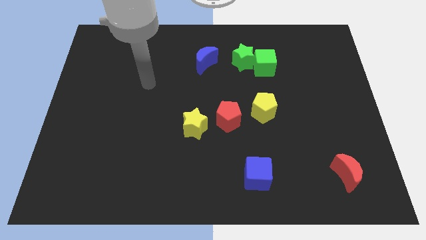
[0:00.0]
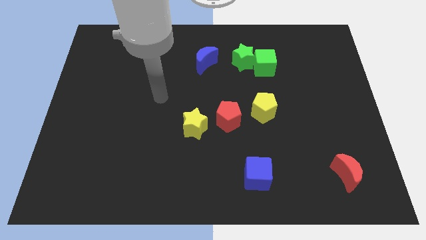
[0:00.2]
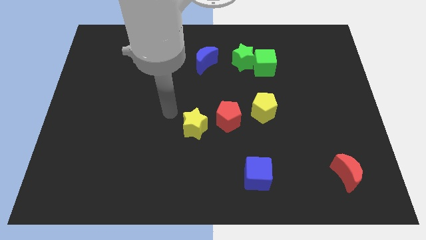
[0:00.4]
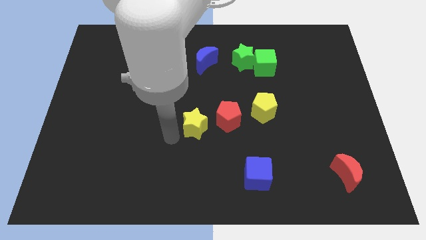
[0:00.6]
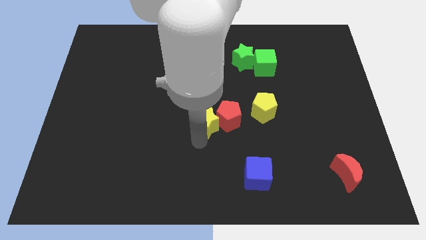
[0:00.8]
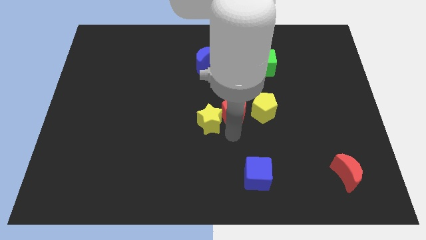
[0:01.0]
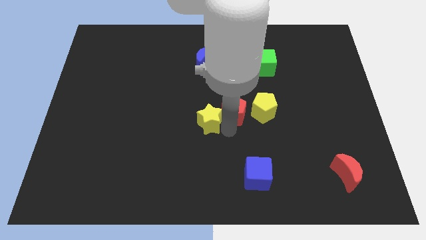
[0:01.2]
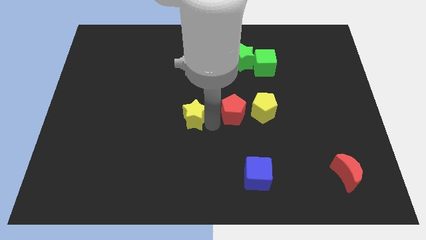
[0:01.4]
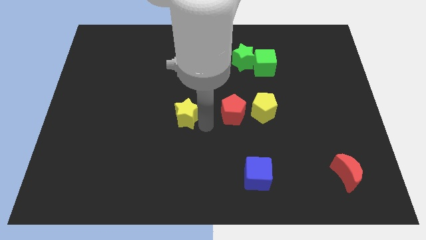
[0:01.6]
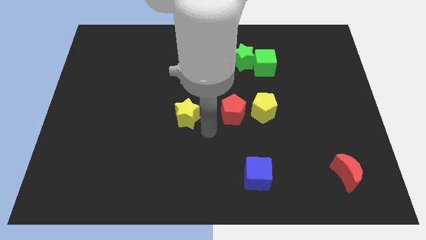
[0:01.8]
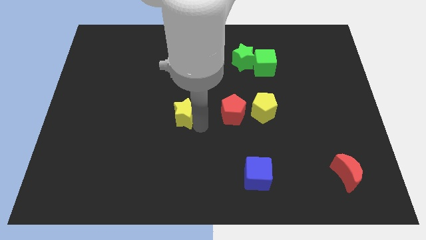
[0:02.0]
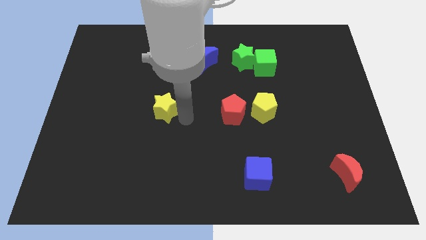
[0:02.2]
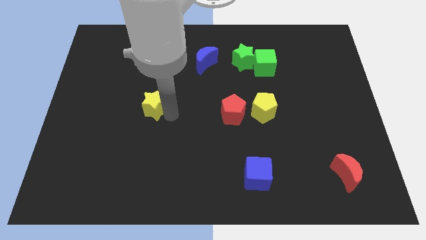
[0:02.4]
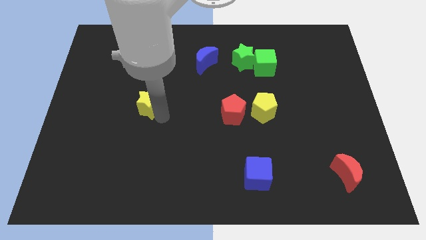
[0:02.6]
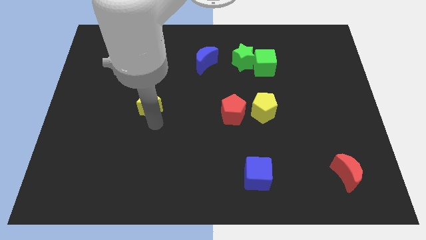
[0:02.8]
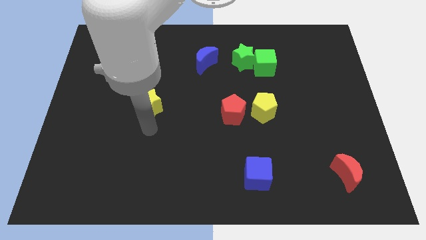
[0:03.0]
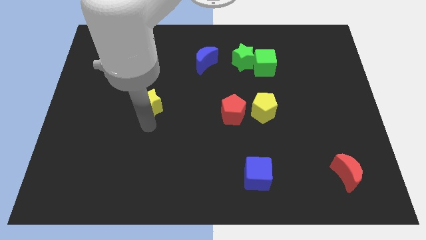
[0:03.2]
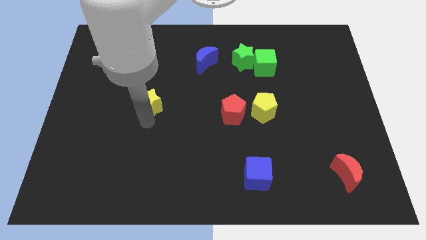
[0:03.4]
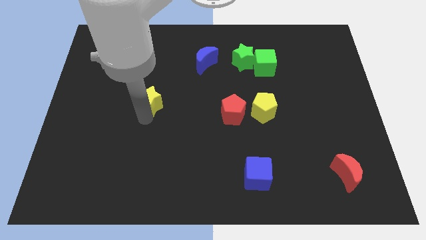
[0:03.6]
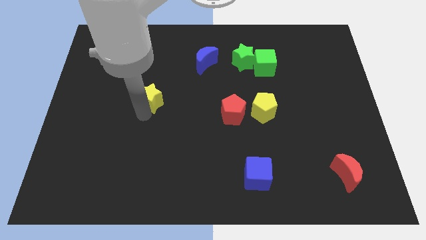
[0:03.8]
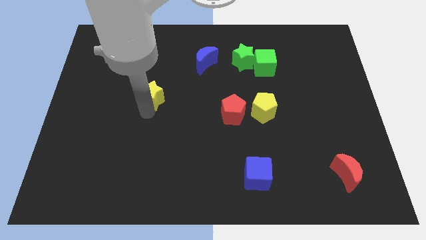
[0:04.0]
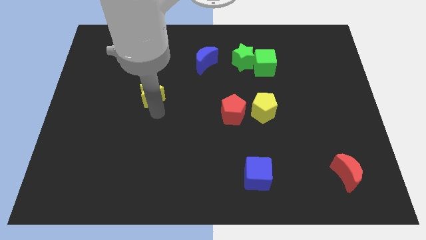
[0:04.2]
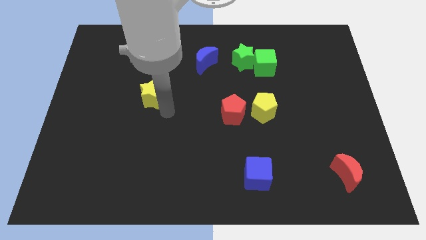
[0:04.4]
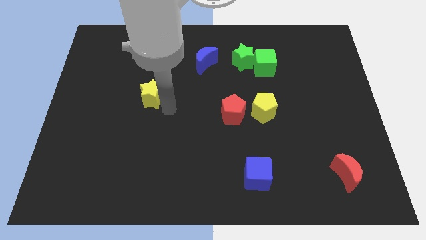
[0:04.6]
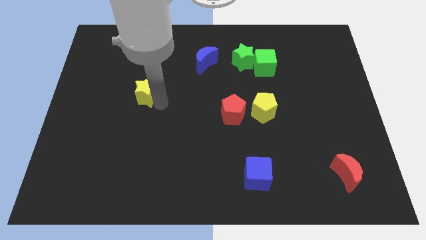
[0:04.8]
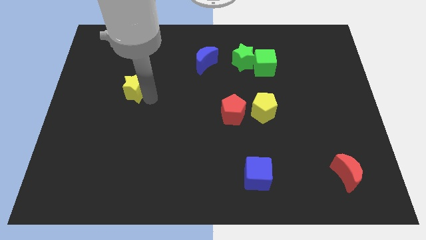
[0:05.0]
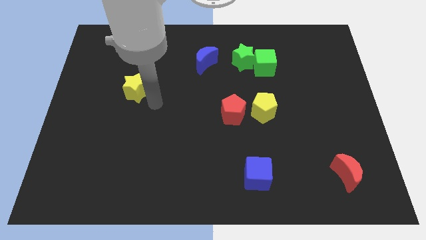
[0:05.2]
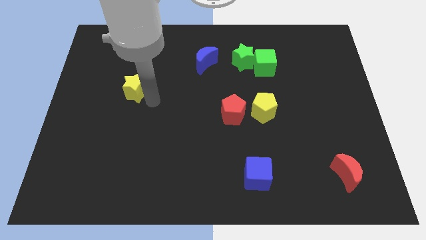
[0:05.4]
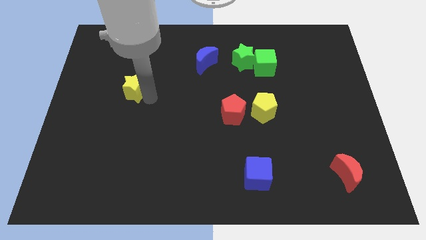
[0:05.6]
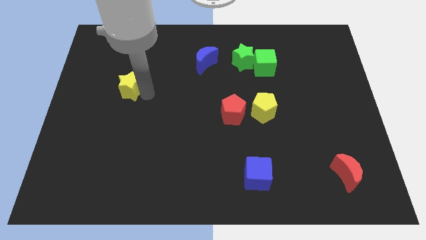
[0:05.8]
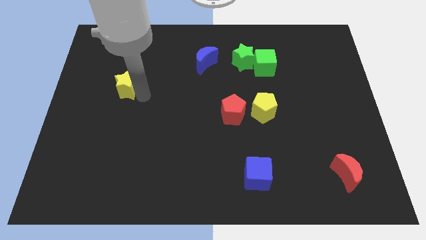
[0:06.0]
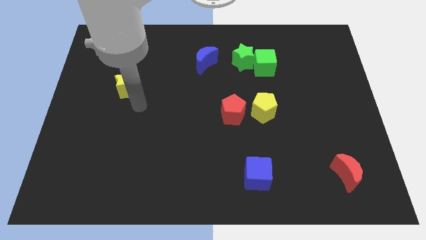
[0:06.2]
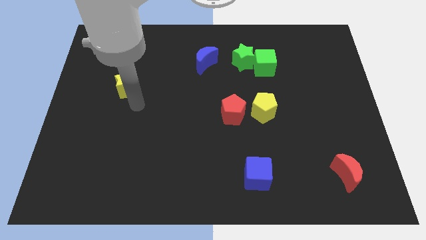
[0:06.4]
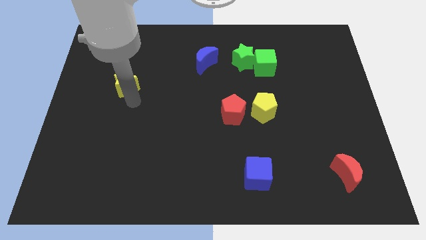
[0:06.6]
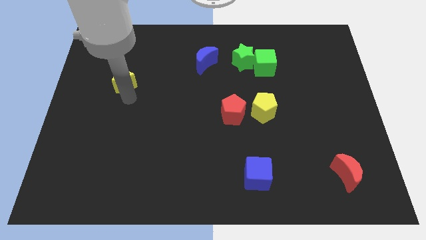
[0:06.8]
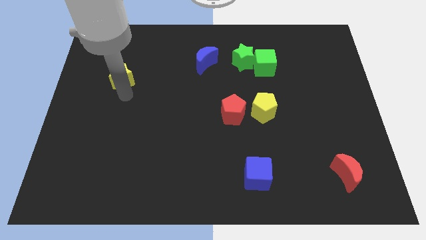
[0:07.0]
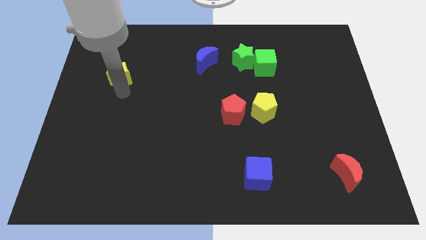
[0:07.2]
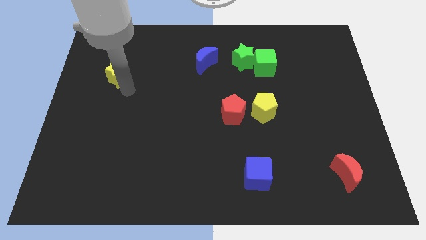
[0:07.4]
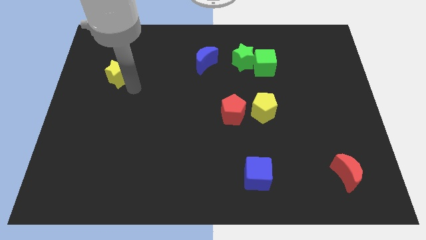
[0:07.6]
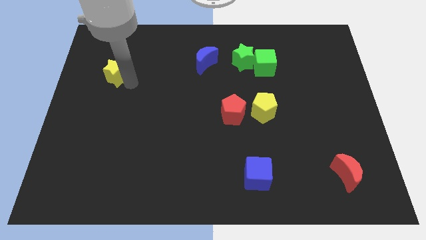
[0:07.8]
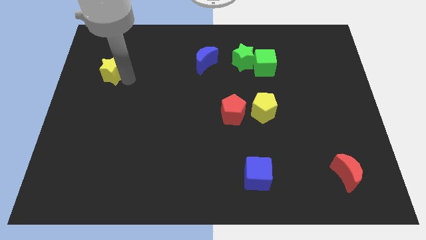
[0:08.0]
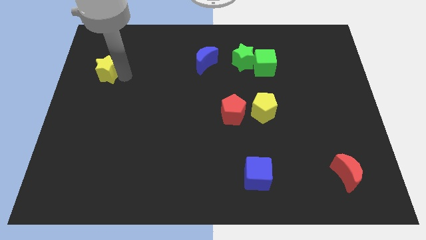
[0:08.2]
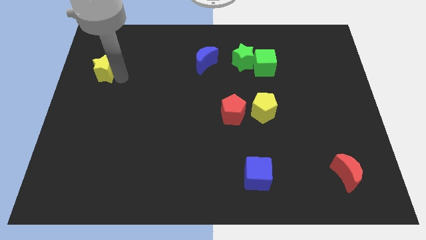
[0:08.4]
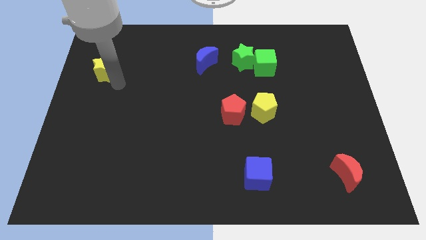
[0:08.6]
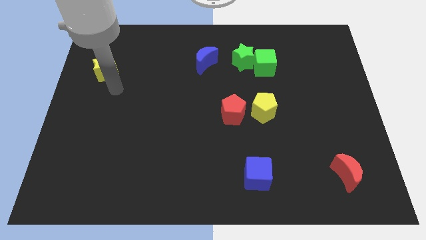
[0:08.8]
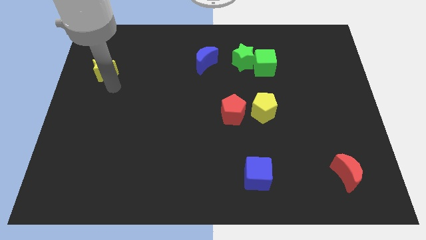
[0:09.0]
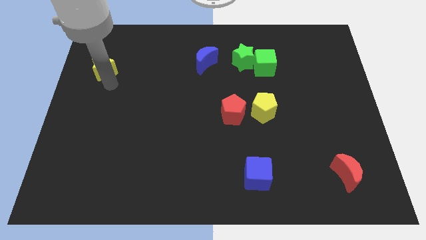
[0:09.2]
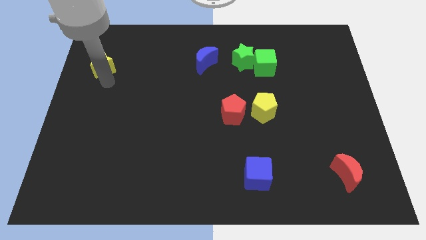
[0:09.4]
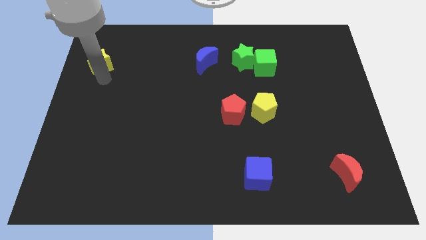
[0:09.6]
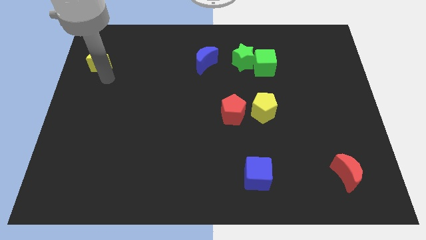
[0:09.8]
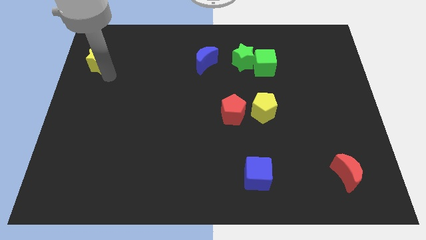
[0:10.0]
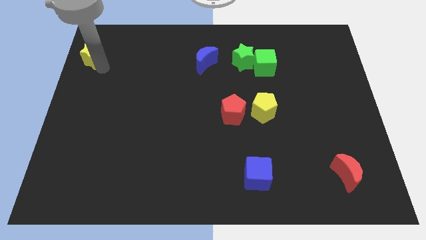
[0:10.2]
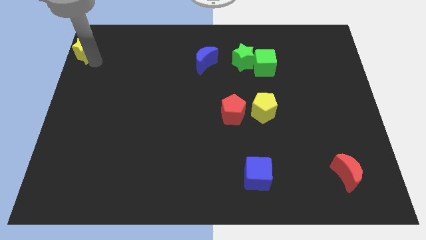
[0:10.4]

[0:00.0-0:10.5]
move the yellow star to the top left
